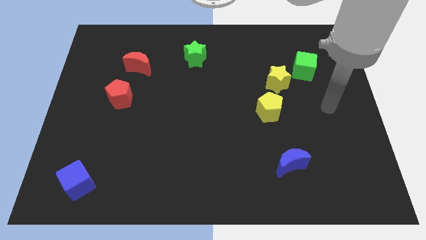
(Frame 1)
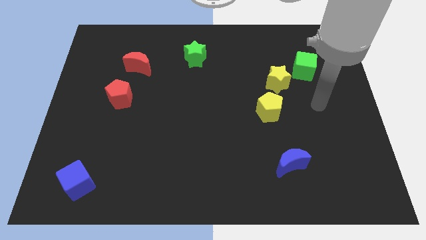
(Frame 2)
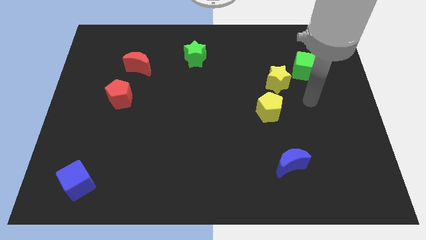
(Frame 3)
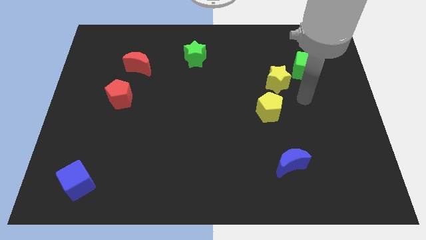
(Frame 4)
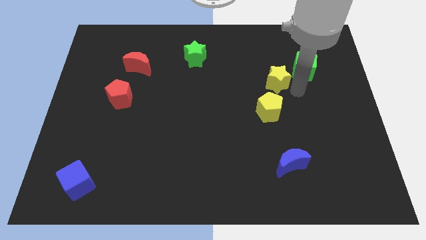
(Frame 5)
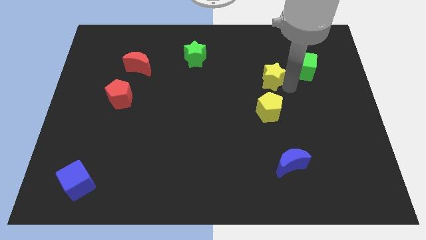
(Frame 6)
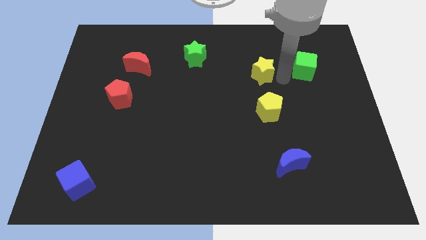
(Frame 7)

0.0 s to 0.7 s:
pull the green cube apart from the yellow star

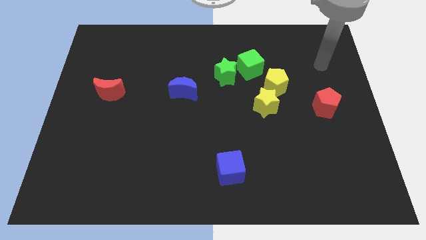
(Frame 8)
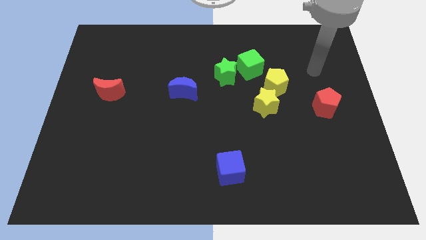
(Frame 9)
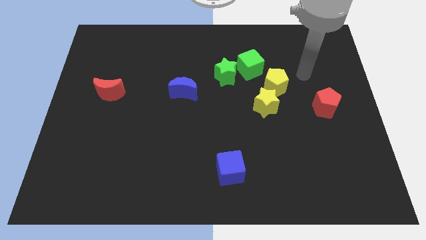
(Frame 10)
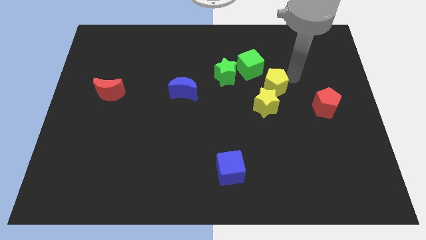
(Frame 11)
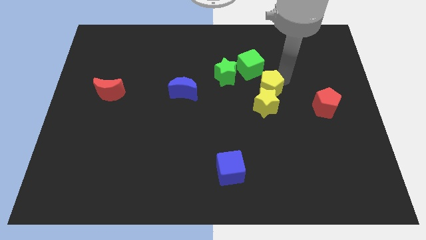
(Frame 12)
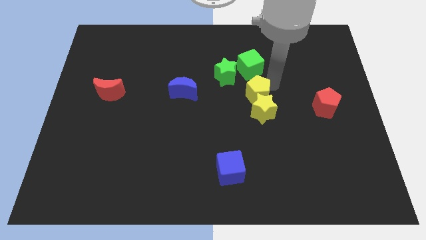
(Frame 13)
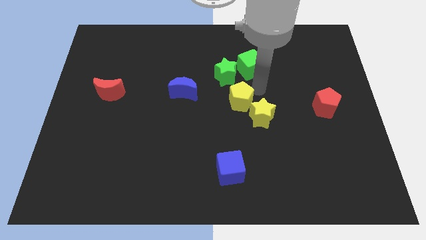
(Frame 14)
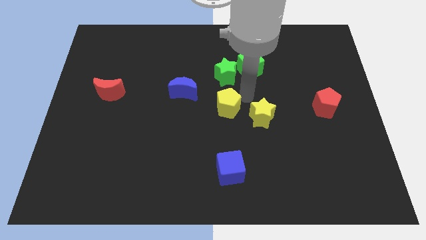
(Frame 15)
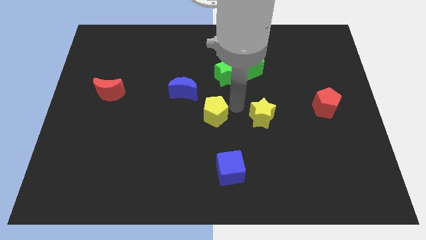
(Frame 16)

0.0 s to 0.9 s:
pull the yellow star apart from the yellow pentagon

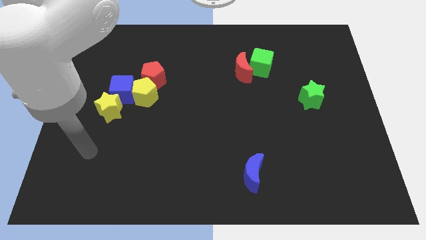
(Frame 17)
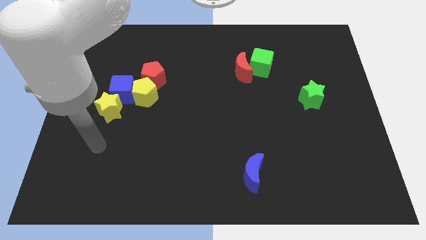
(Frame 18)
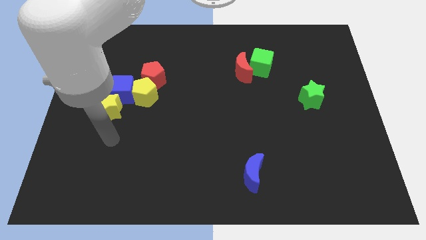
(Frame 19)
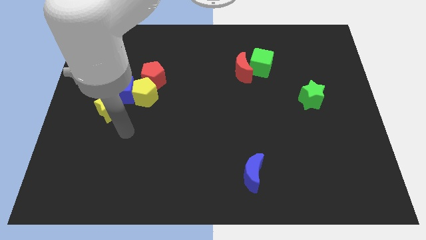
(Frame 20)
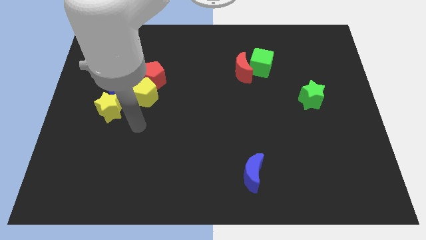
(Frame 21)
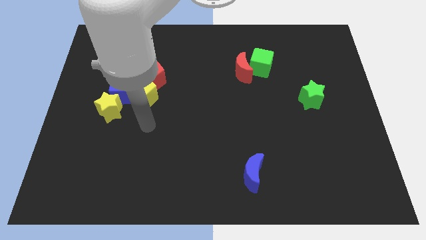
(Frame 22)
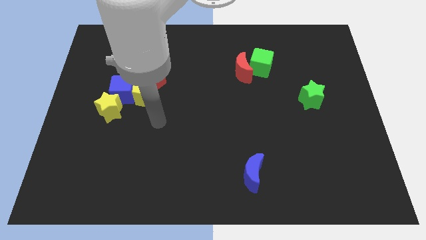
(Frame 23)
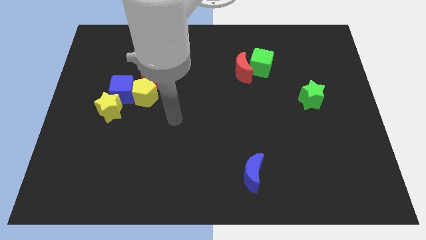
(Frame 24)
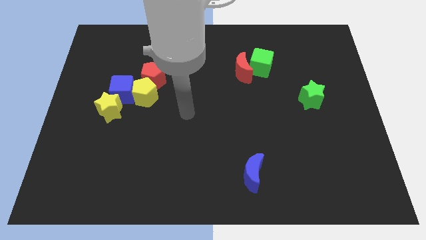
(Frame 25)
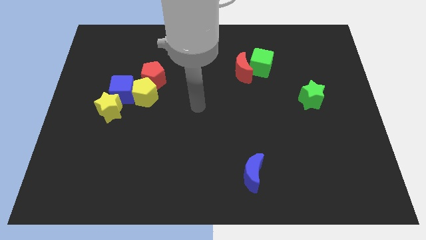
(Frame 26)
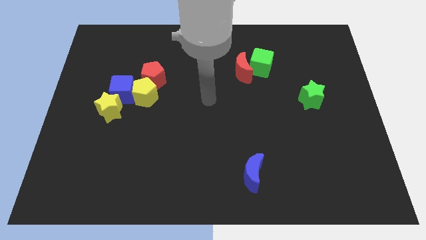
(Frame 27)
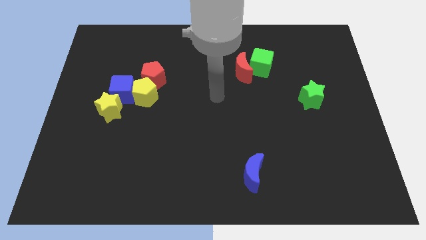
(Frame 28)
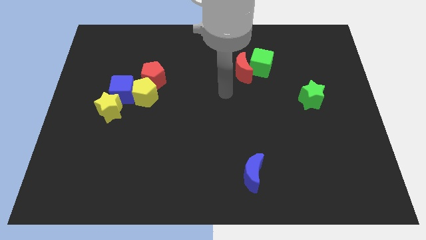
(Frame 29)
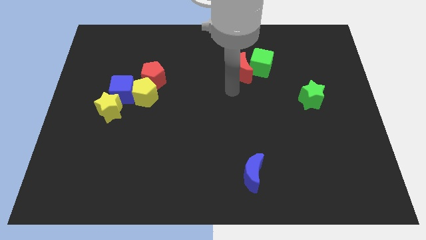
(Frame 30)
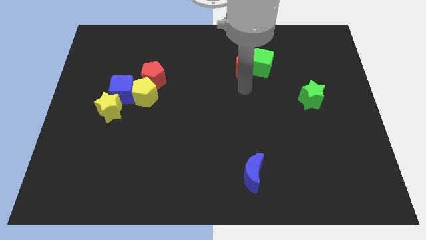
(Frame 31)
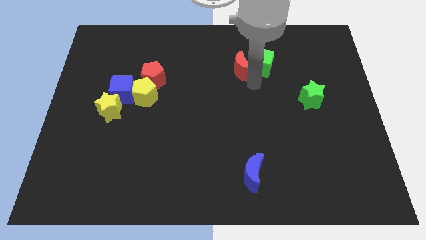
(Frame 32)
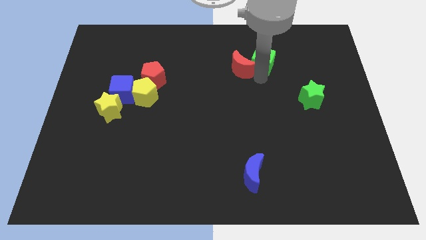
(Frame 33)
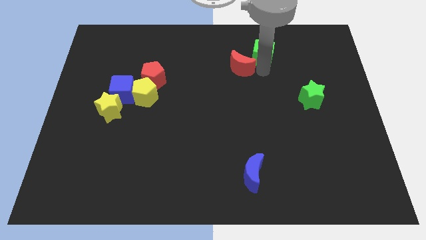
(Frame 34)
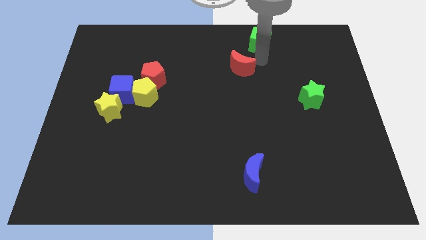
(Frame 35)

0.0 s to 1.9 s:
move the red moon away from the green cube

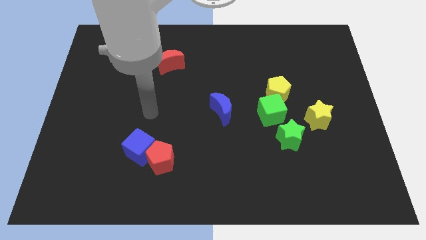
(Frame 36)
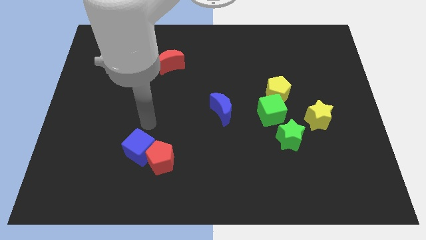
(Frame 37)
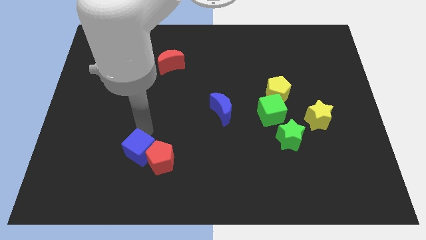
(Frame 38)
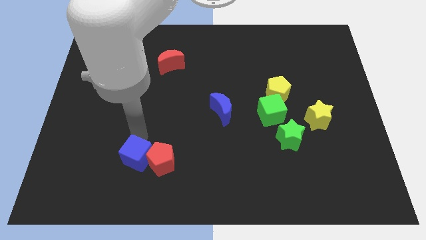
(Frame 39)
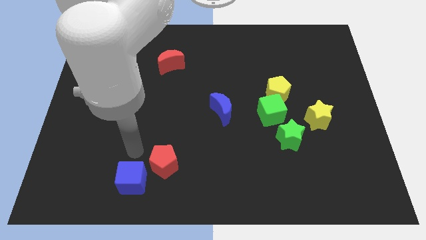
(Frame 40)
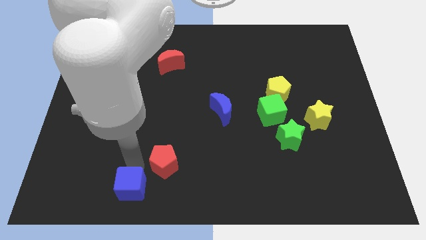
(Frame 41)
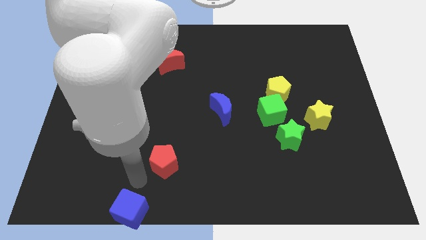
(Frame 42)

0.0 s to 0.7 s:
pull the red pentagon apart from the blue cube

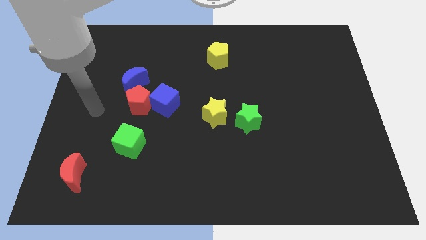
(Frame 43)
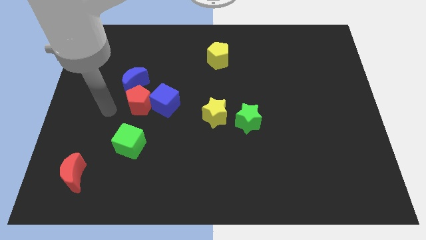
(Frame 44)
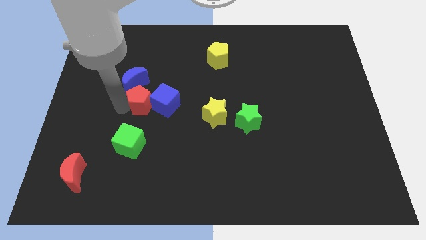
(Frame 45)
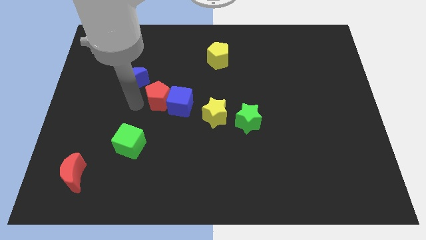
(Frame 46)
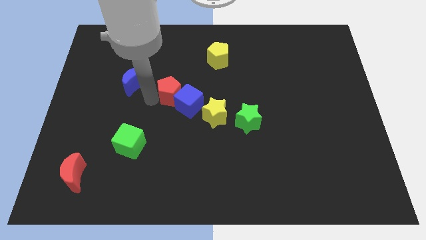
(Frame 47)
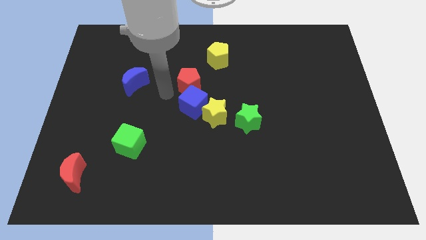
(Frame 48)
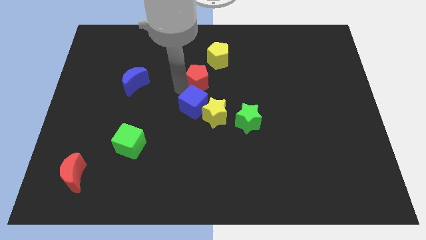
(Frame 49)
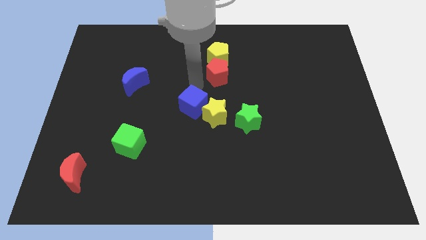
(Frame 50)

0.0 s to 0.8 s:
pull the blue cube apart from the red pentagon

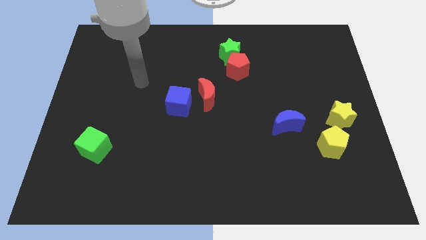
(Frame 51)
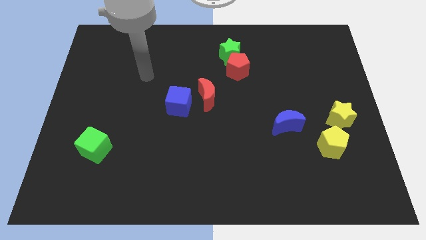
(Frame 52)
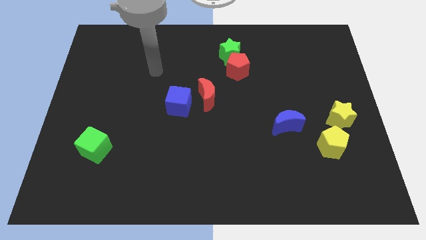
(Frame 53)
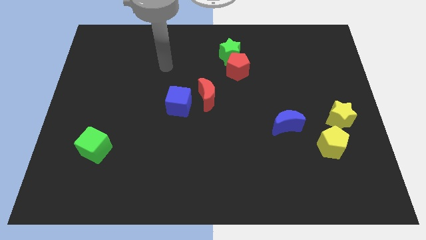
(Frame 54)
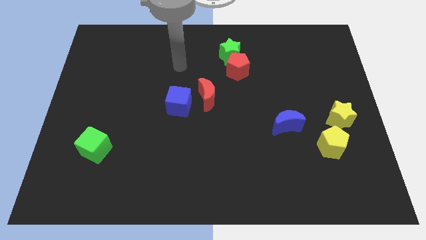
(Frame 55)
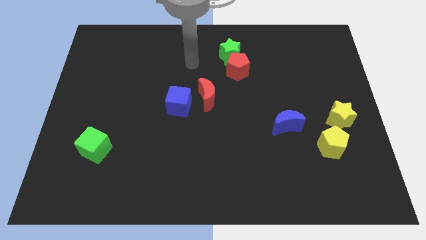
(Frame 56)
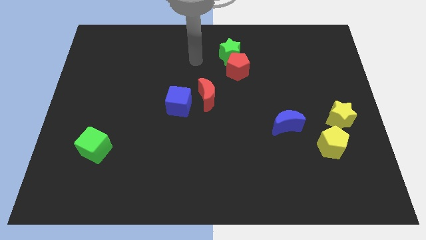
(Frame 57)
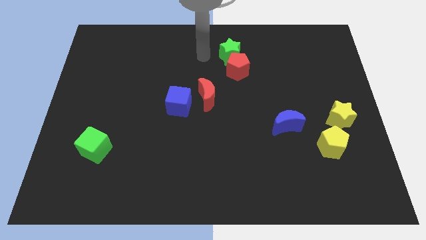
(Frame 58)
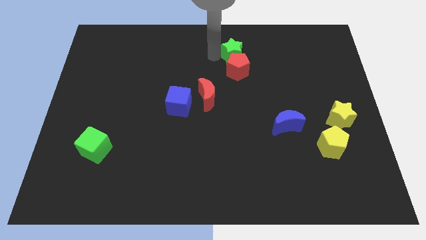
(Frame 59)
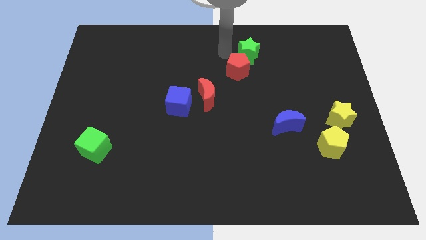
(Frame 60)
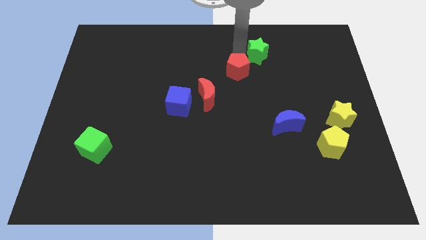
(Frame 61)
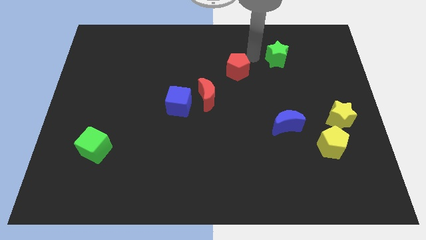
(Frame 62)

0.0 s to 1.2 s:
pull the red pentagon apart from the green star

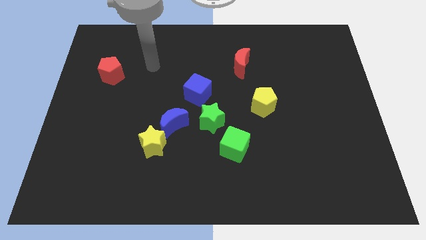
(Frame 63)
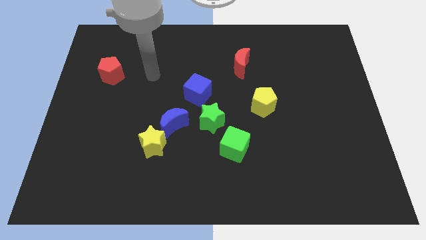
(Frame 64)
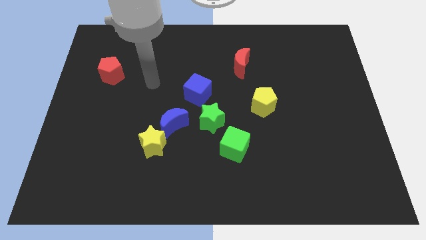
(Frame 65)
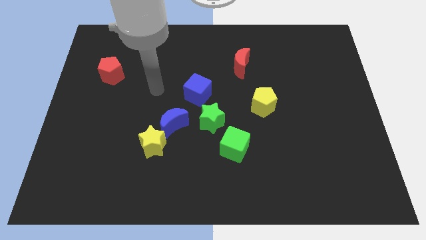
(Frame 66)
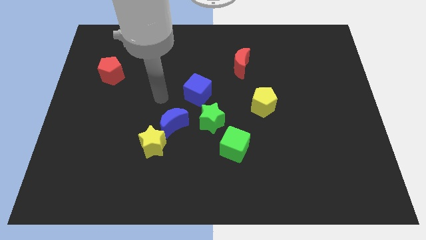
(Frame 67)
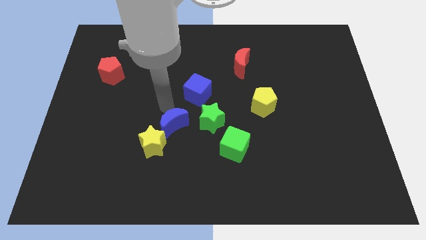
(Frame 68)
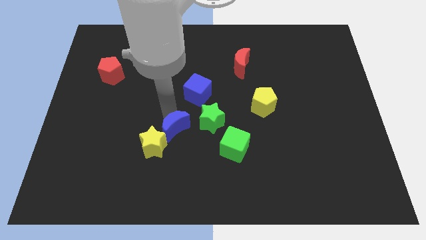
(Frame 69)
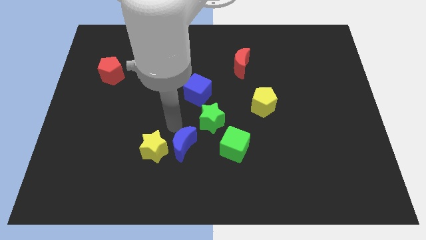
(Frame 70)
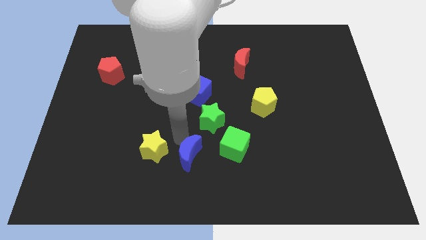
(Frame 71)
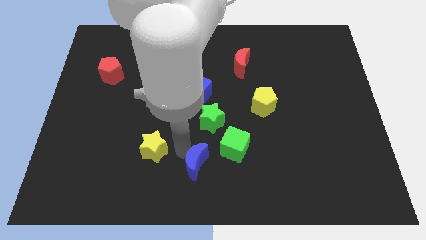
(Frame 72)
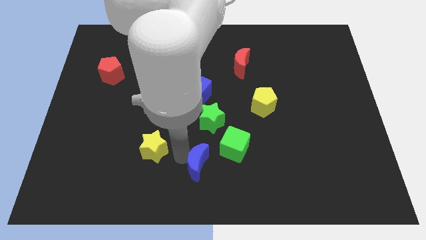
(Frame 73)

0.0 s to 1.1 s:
pull the yellow star apart from the blue moon

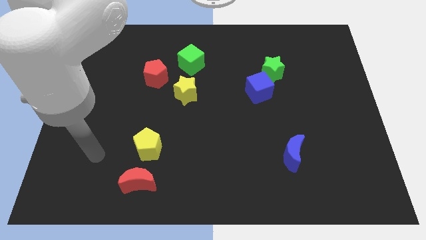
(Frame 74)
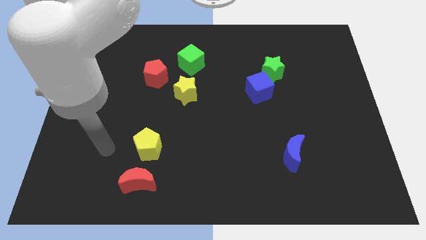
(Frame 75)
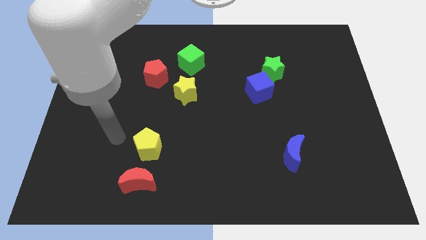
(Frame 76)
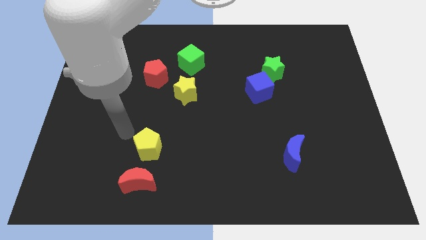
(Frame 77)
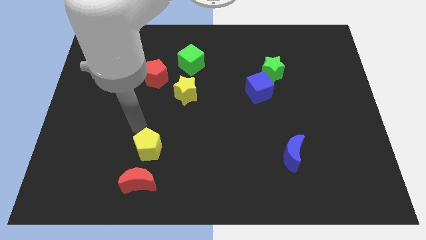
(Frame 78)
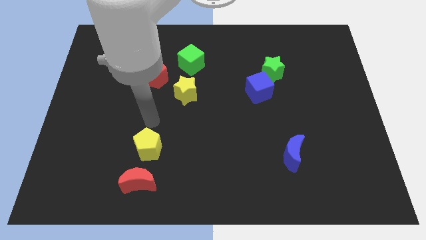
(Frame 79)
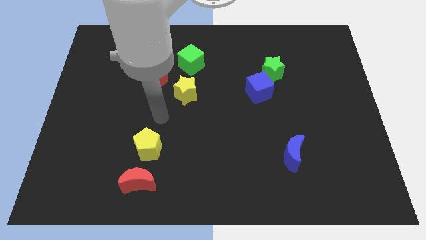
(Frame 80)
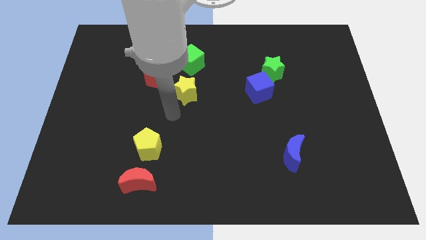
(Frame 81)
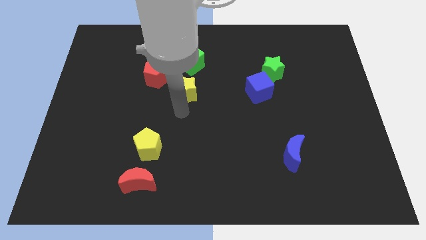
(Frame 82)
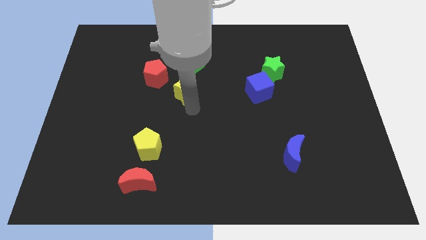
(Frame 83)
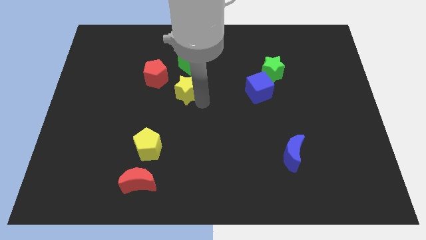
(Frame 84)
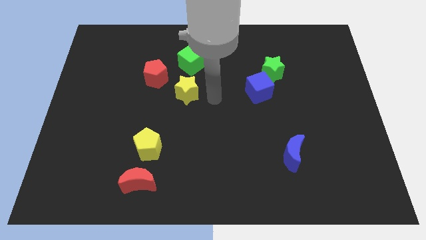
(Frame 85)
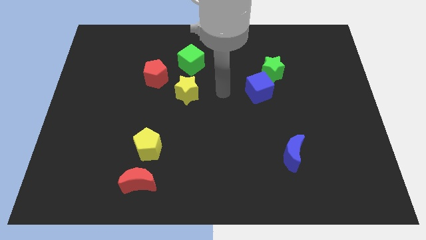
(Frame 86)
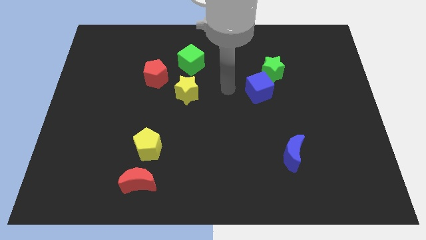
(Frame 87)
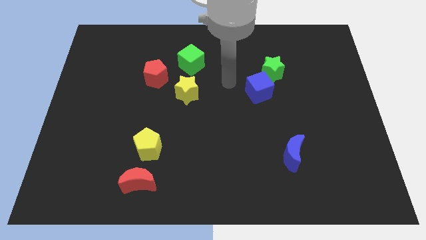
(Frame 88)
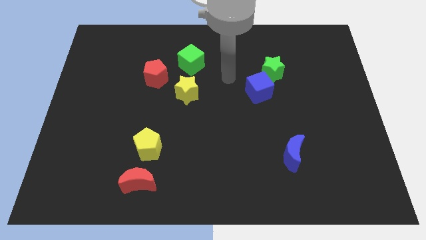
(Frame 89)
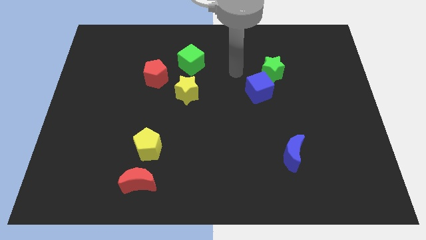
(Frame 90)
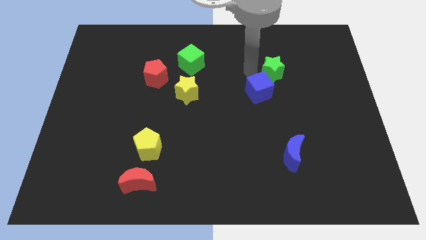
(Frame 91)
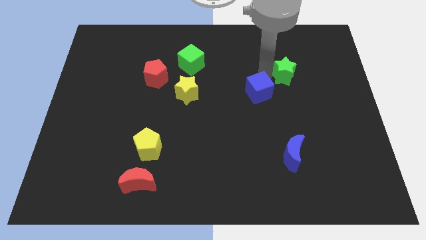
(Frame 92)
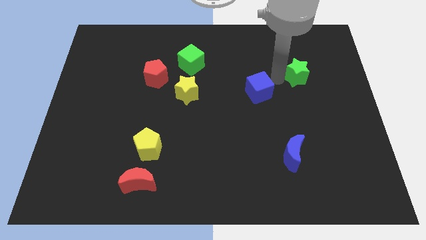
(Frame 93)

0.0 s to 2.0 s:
pull the blue cube apart from the green star
